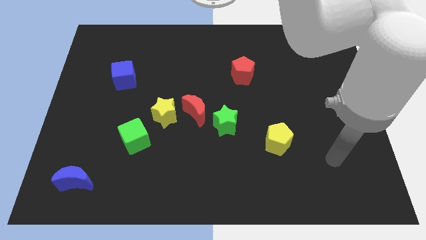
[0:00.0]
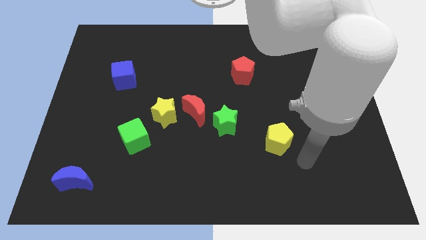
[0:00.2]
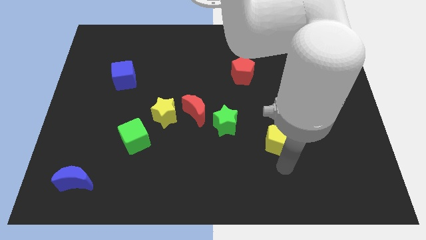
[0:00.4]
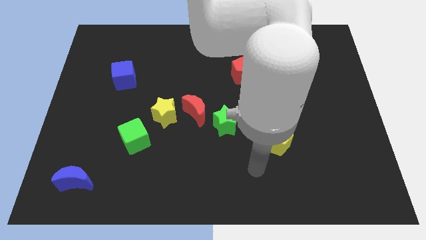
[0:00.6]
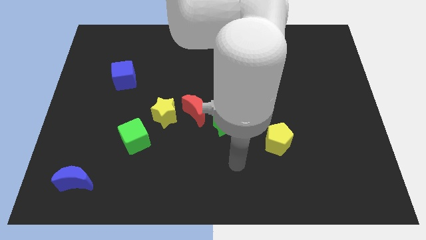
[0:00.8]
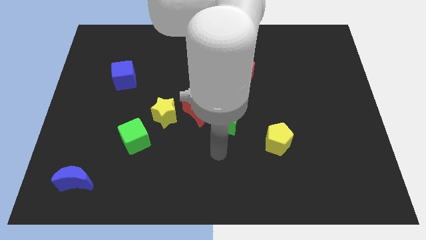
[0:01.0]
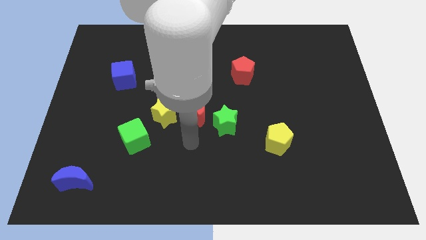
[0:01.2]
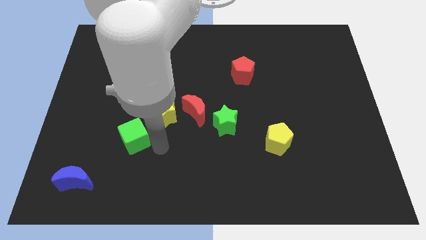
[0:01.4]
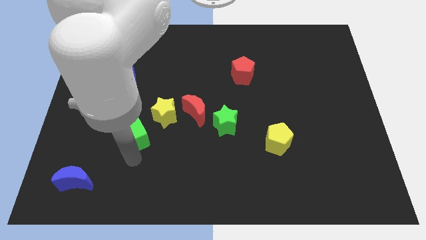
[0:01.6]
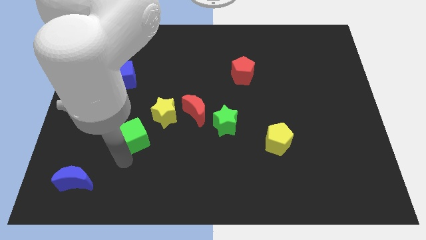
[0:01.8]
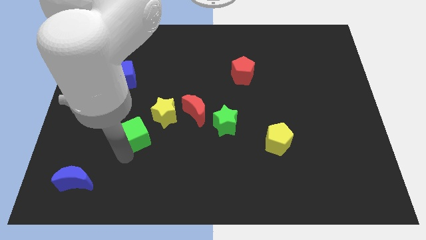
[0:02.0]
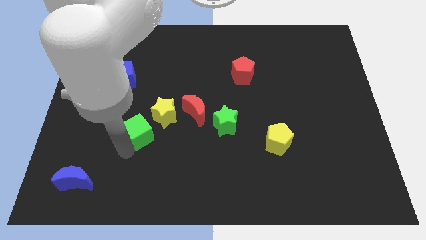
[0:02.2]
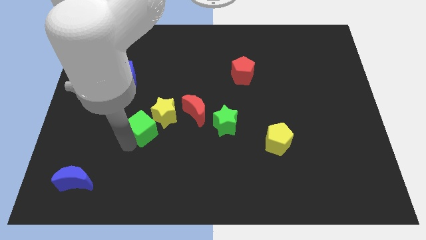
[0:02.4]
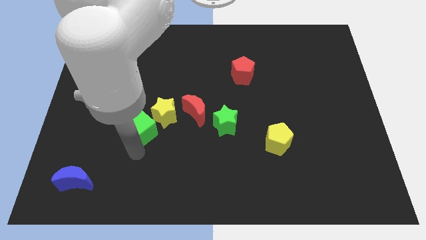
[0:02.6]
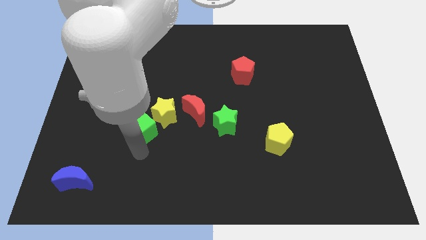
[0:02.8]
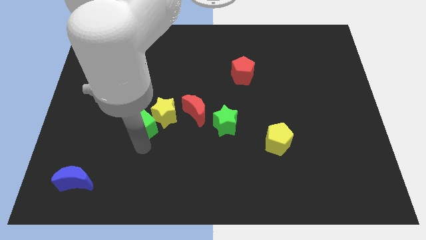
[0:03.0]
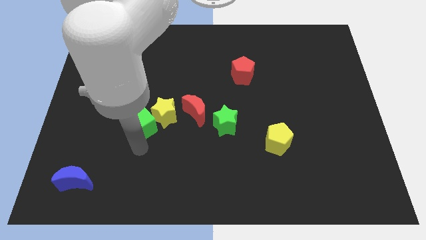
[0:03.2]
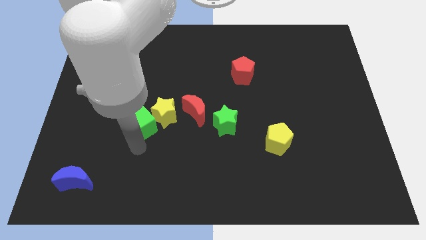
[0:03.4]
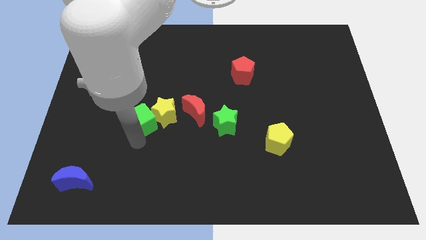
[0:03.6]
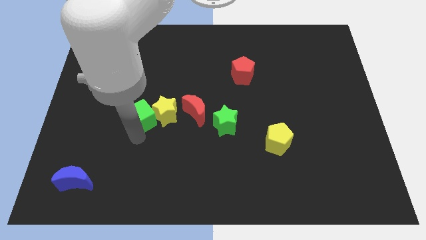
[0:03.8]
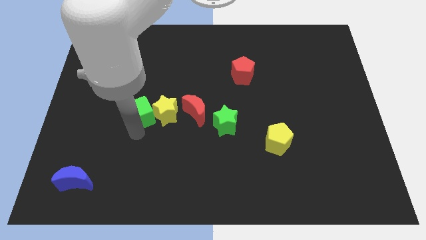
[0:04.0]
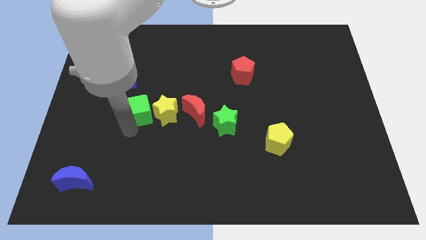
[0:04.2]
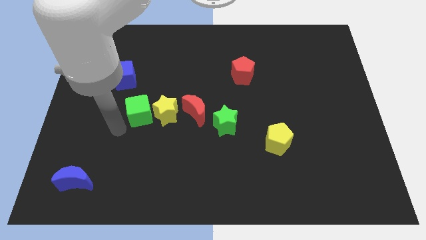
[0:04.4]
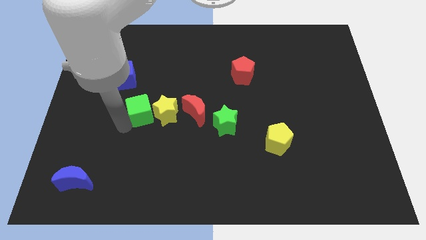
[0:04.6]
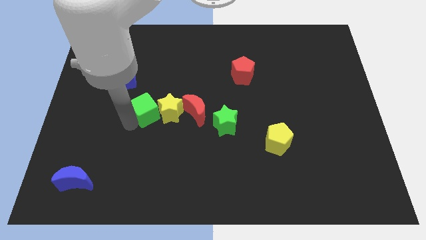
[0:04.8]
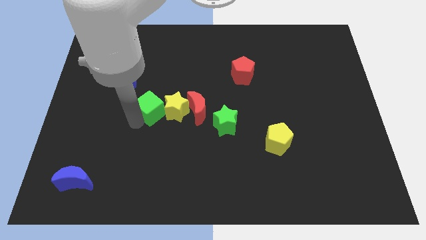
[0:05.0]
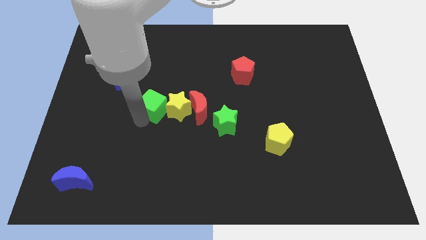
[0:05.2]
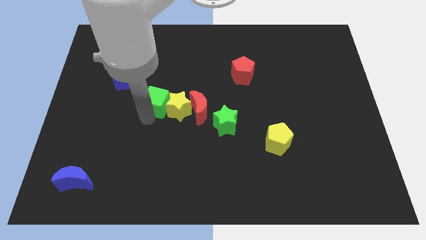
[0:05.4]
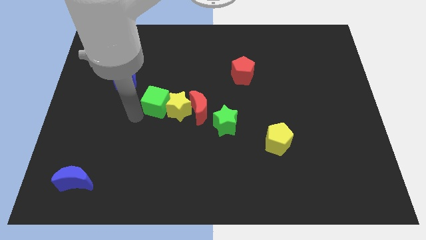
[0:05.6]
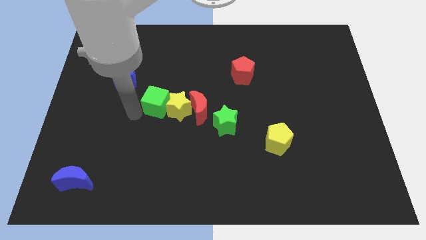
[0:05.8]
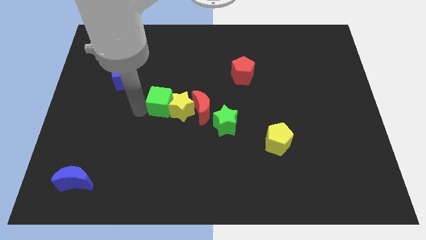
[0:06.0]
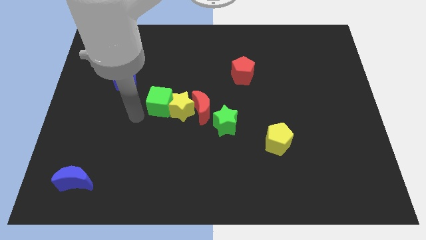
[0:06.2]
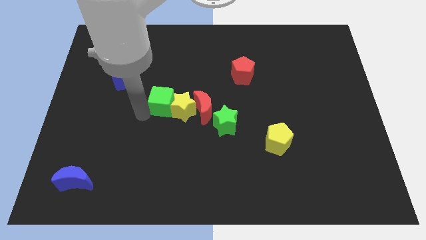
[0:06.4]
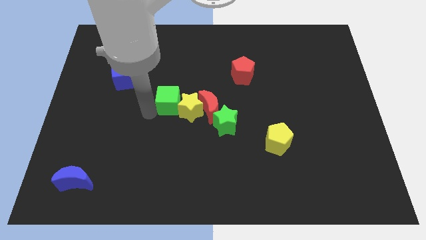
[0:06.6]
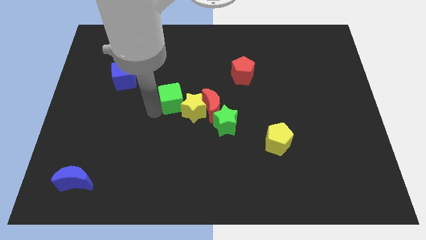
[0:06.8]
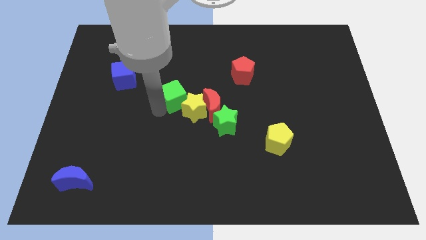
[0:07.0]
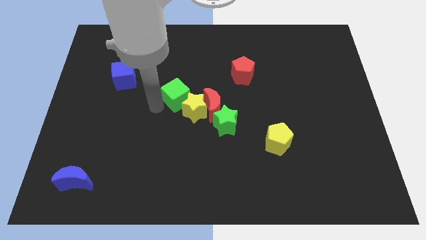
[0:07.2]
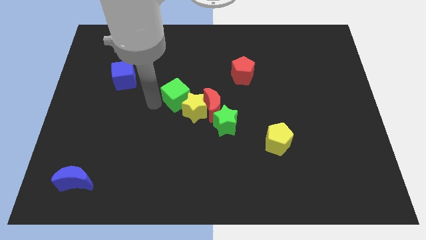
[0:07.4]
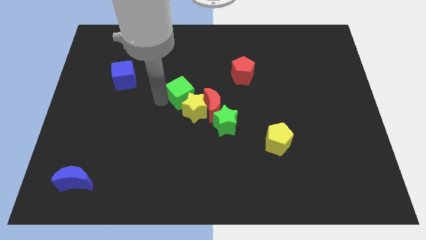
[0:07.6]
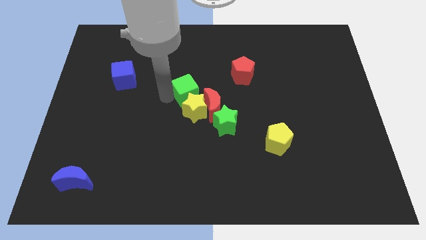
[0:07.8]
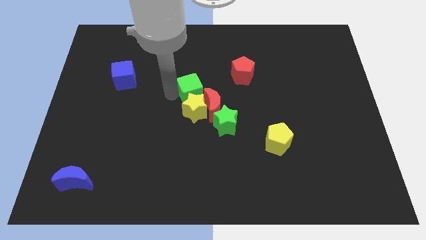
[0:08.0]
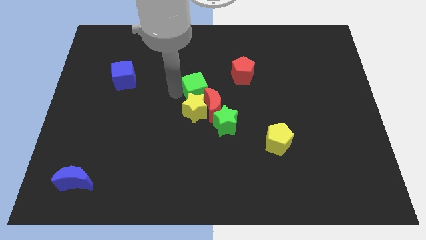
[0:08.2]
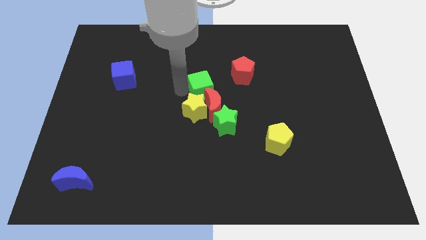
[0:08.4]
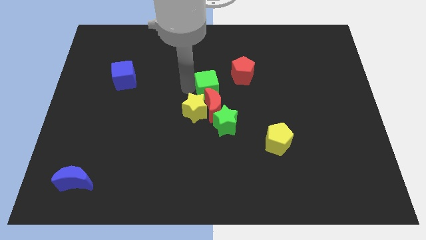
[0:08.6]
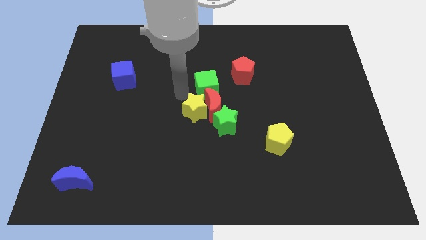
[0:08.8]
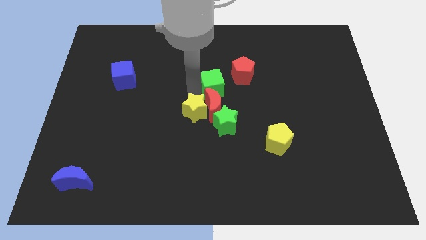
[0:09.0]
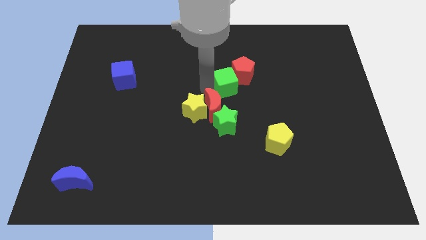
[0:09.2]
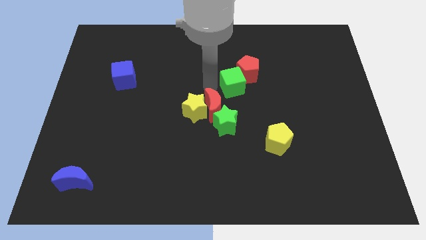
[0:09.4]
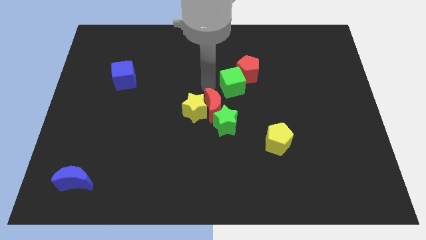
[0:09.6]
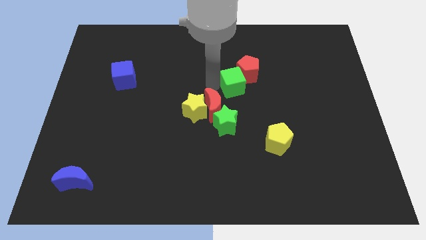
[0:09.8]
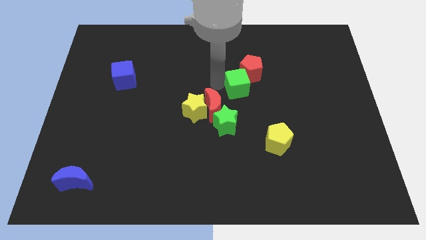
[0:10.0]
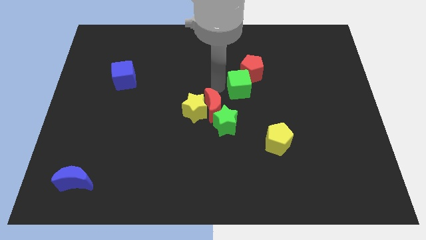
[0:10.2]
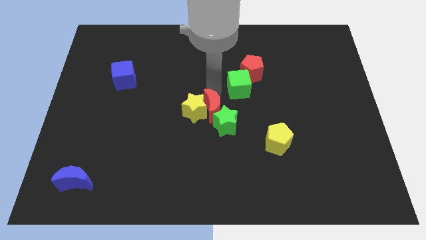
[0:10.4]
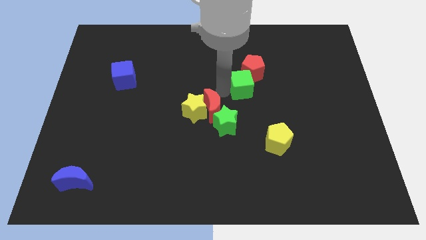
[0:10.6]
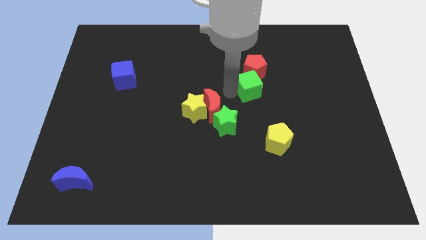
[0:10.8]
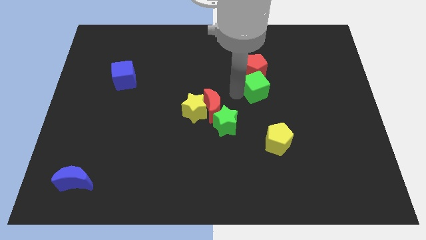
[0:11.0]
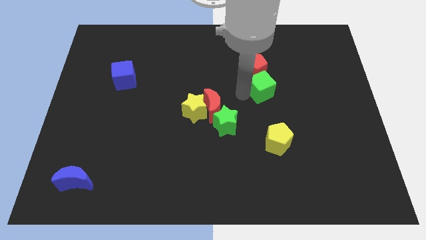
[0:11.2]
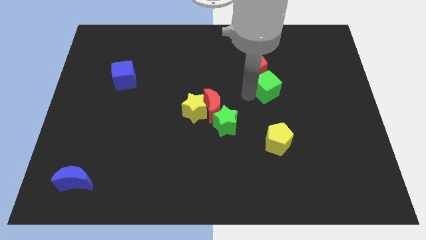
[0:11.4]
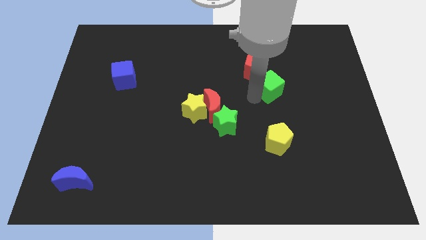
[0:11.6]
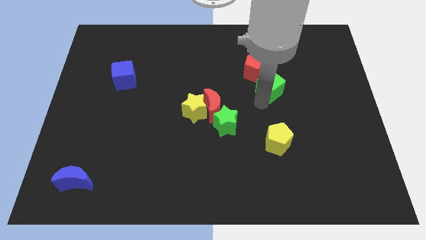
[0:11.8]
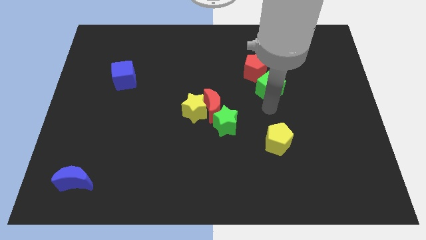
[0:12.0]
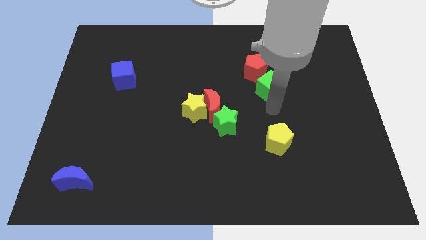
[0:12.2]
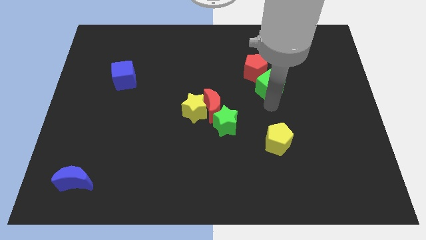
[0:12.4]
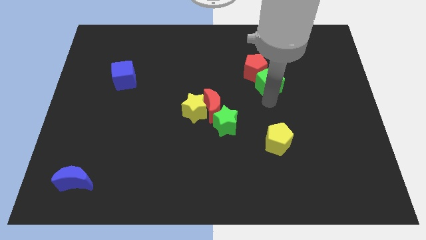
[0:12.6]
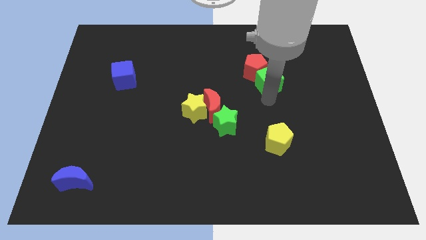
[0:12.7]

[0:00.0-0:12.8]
push the green cube just right of the red pentagon

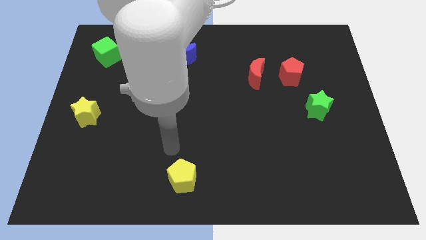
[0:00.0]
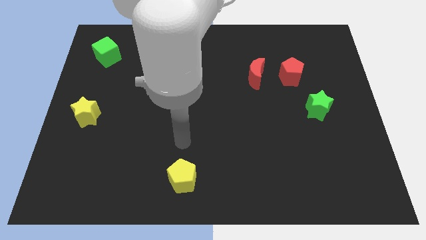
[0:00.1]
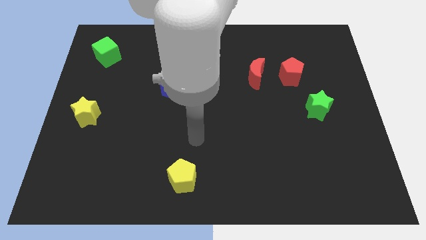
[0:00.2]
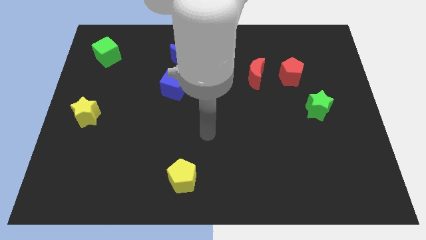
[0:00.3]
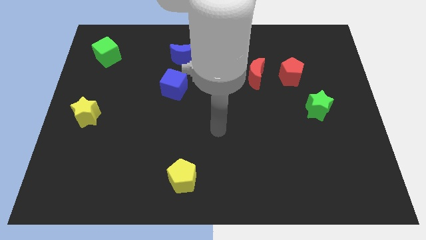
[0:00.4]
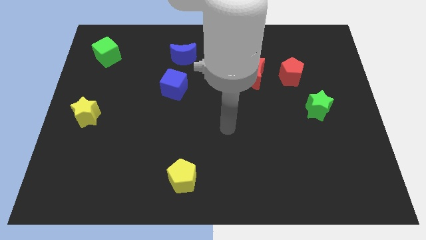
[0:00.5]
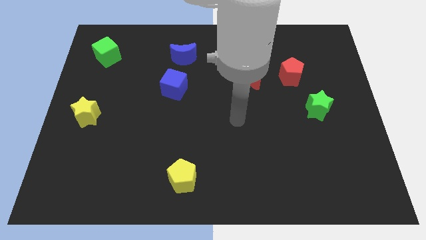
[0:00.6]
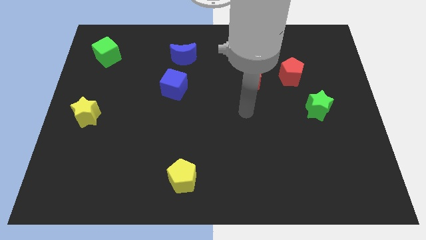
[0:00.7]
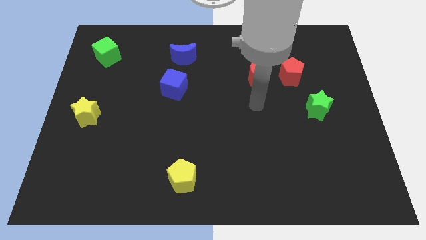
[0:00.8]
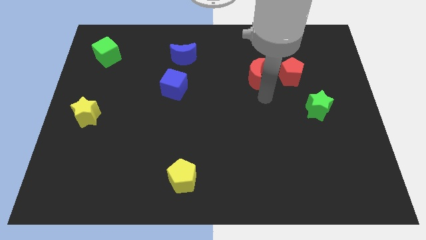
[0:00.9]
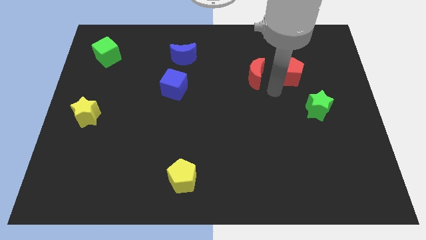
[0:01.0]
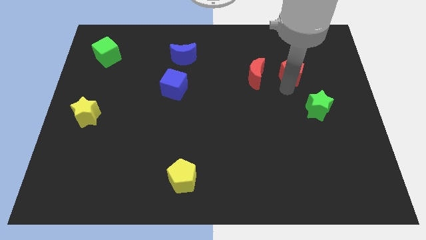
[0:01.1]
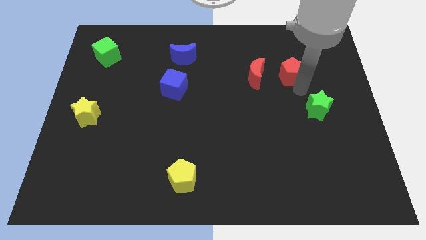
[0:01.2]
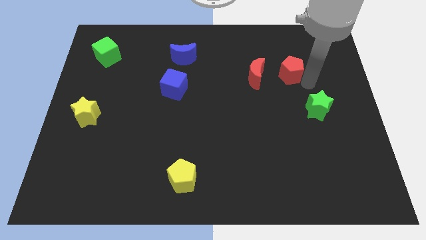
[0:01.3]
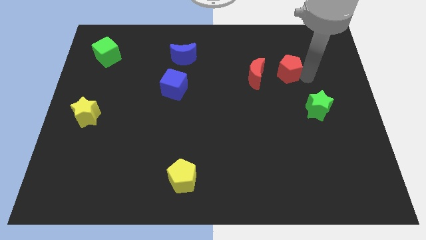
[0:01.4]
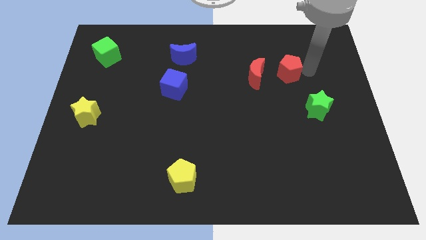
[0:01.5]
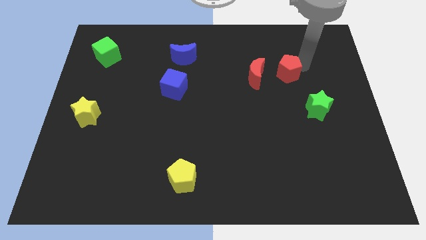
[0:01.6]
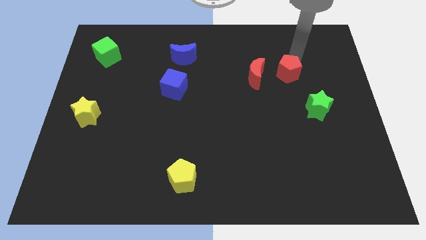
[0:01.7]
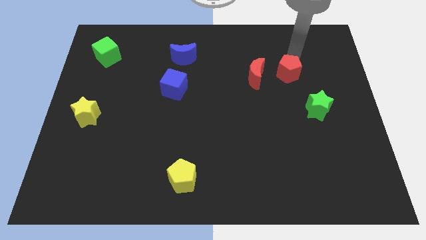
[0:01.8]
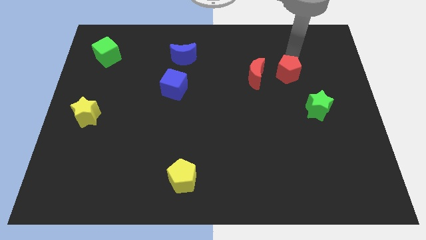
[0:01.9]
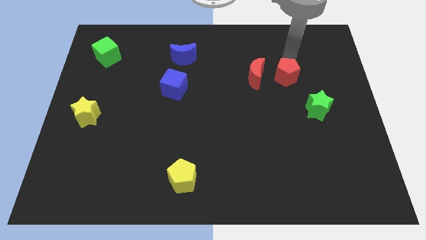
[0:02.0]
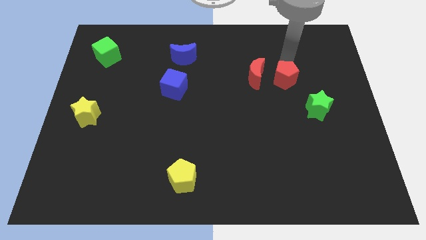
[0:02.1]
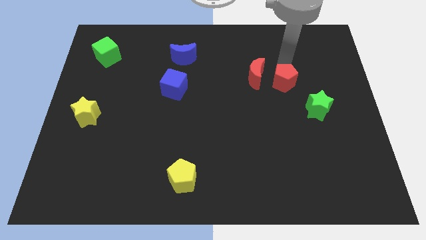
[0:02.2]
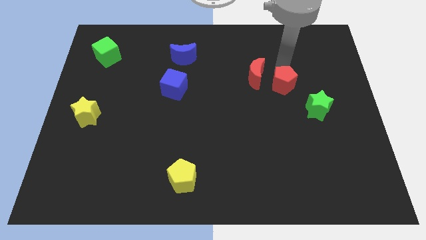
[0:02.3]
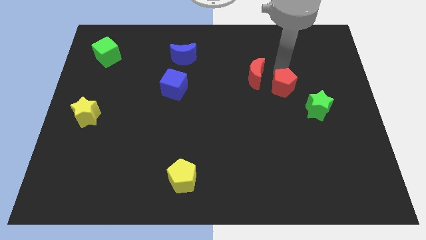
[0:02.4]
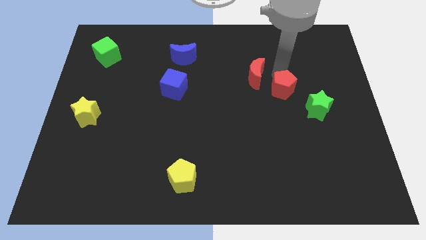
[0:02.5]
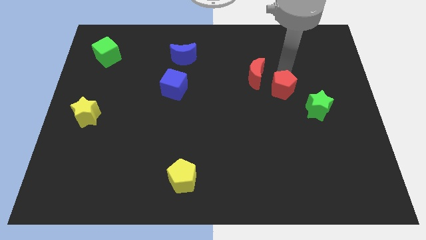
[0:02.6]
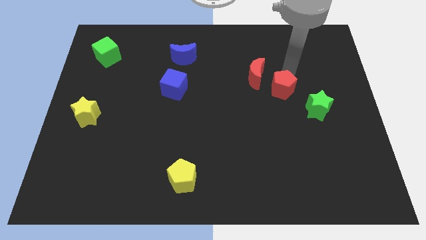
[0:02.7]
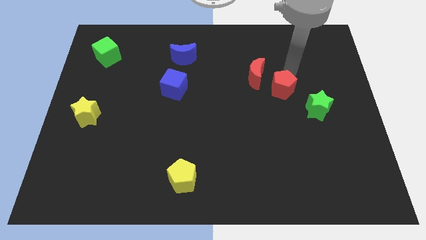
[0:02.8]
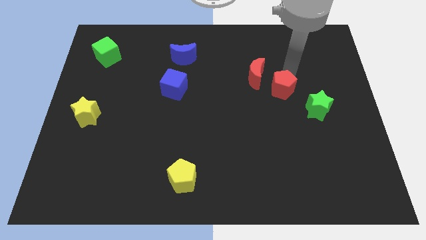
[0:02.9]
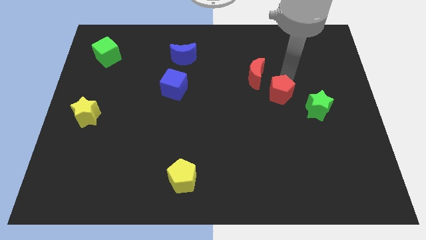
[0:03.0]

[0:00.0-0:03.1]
move the red pentagon just left of the green star
